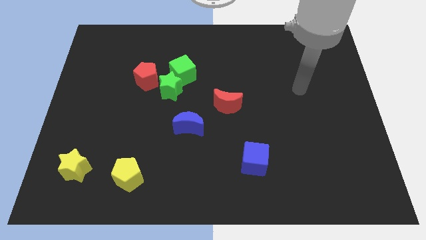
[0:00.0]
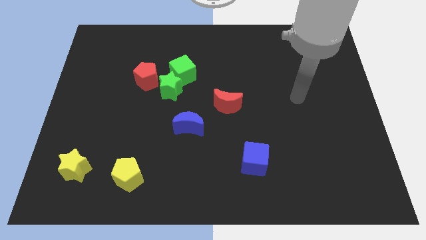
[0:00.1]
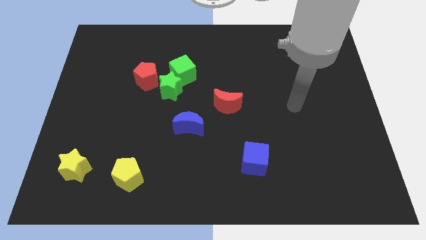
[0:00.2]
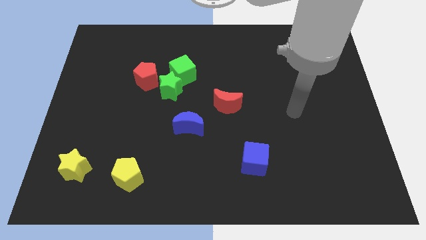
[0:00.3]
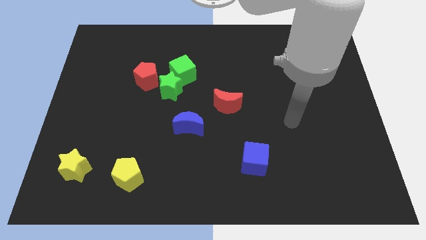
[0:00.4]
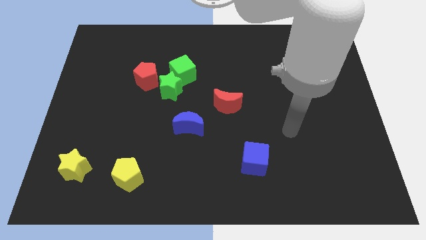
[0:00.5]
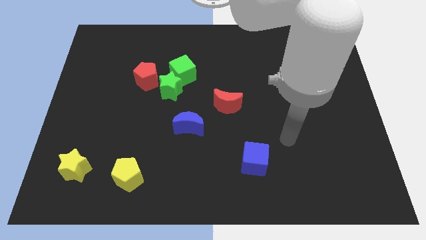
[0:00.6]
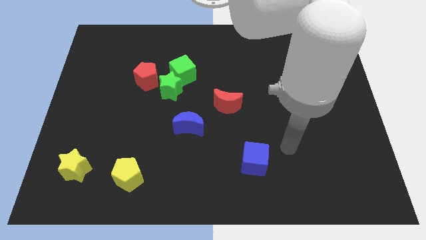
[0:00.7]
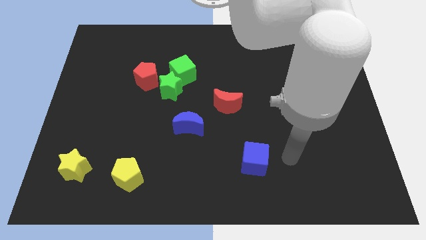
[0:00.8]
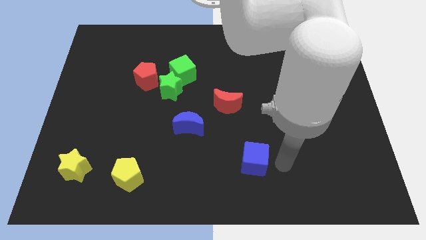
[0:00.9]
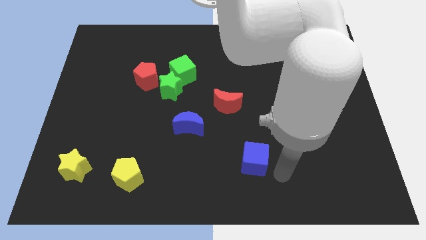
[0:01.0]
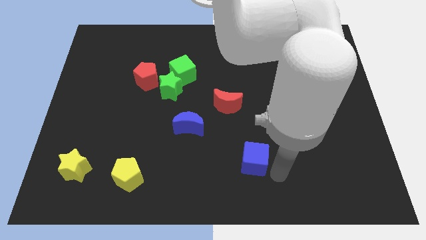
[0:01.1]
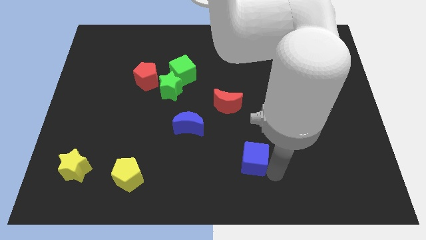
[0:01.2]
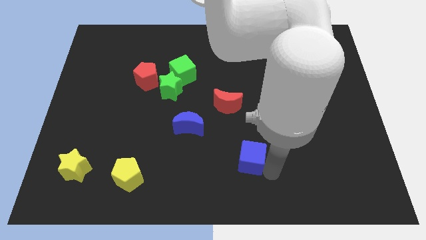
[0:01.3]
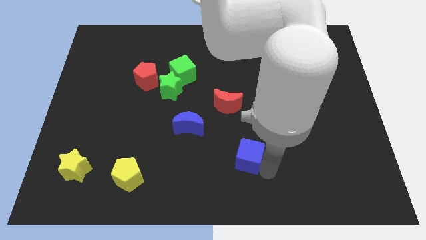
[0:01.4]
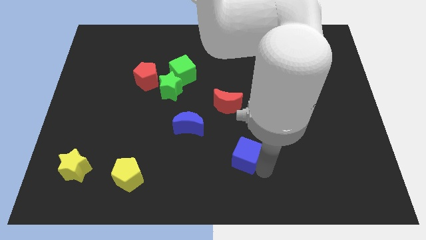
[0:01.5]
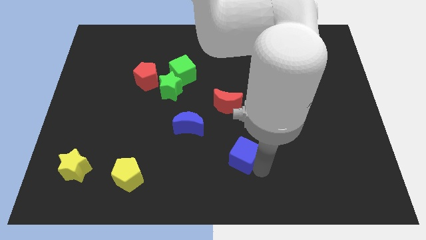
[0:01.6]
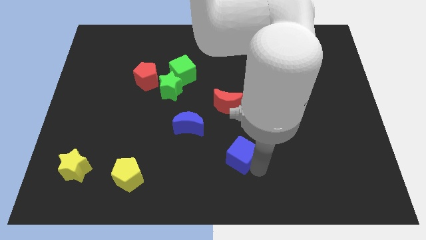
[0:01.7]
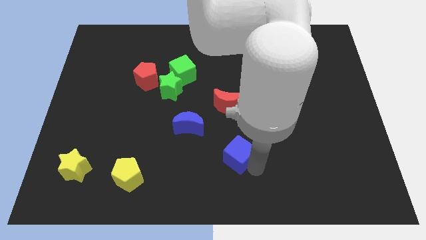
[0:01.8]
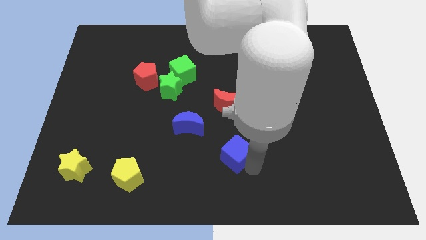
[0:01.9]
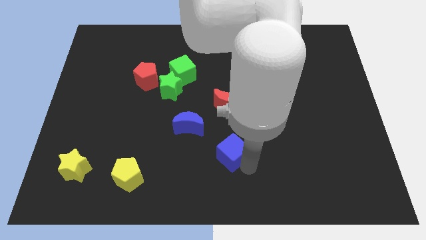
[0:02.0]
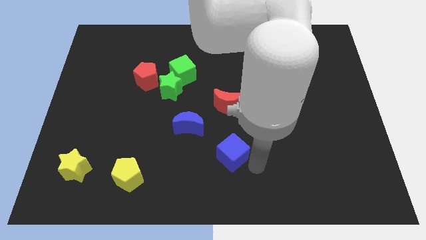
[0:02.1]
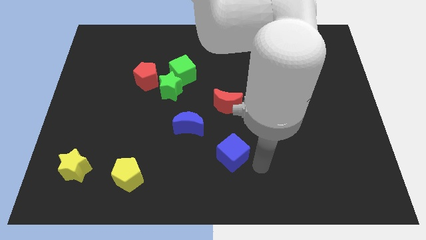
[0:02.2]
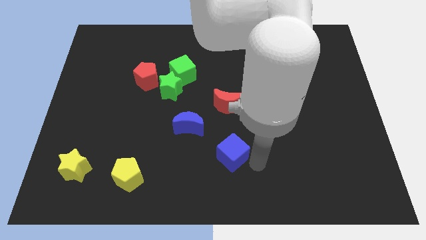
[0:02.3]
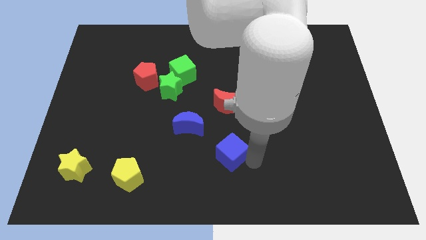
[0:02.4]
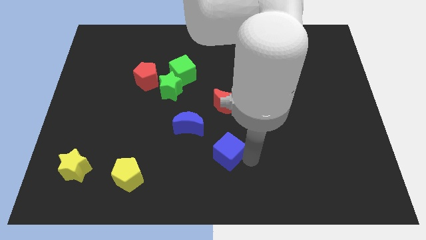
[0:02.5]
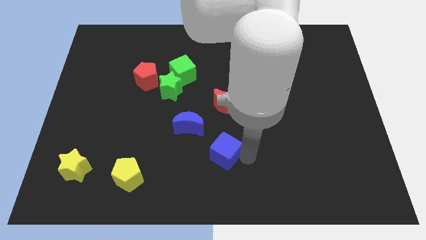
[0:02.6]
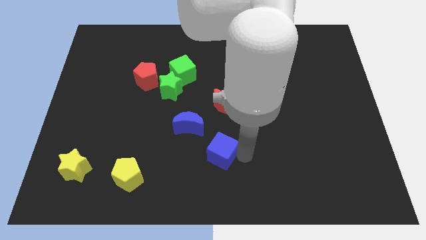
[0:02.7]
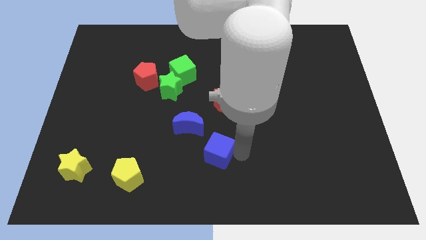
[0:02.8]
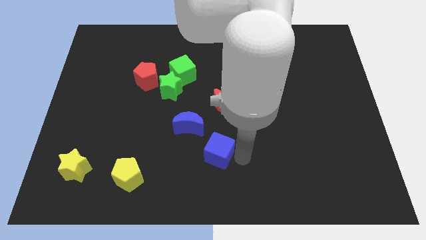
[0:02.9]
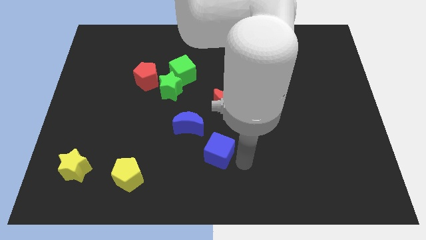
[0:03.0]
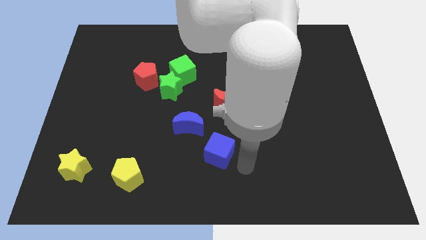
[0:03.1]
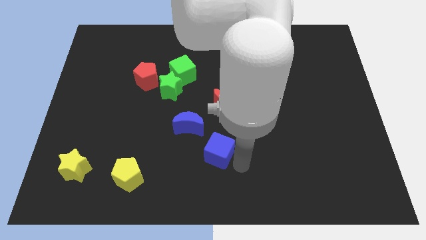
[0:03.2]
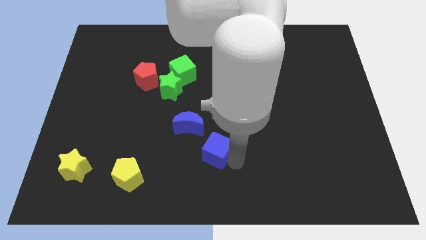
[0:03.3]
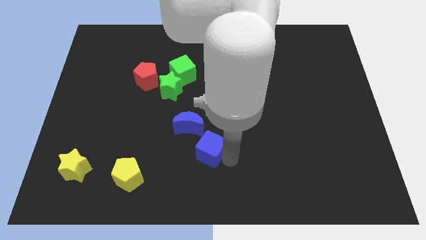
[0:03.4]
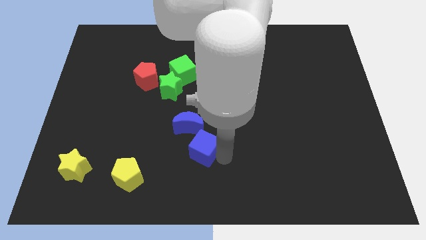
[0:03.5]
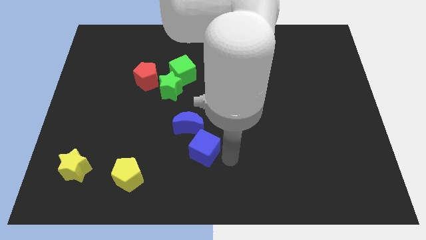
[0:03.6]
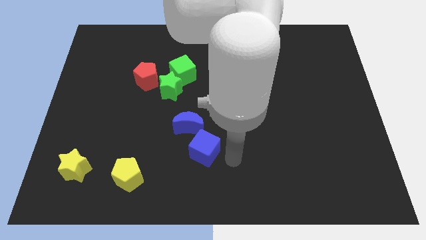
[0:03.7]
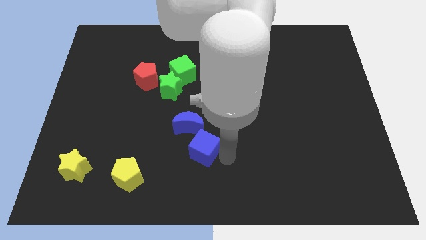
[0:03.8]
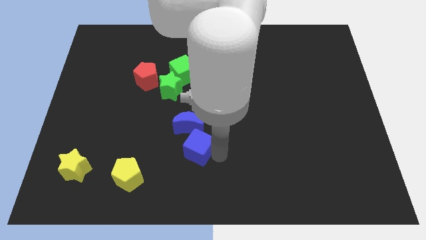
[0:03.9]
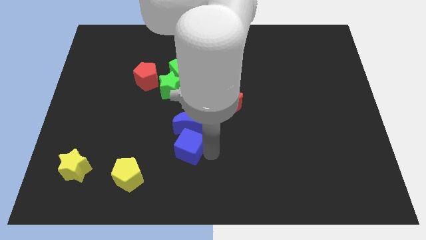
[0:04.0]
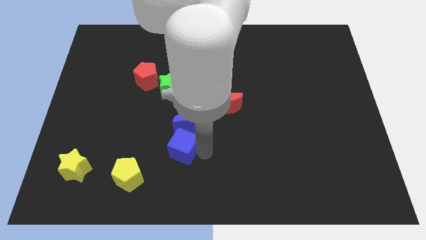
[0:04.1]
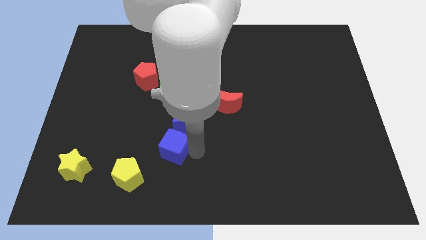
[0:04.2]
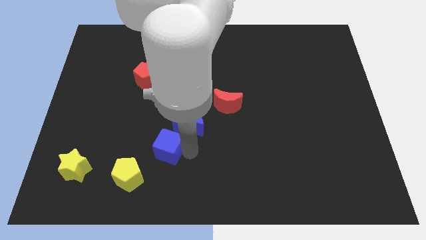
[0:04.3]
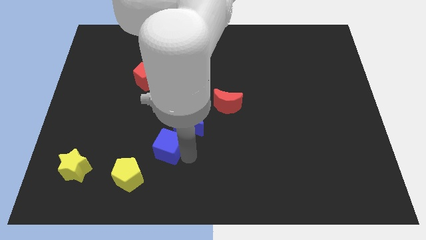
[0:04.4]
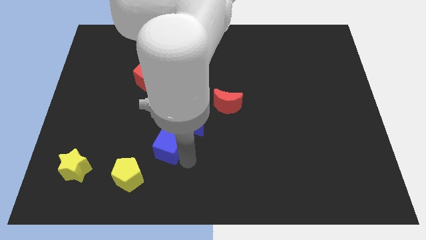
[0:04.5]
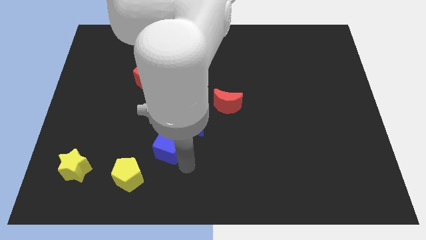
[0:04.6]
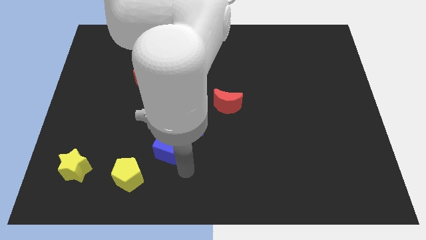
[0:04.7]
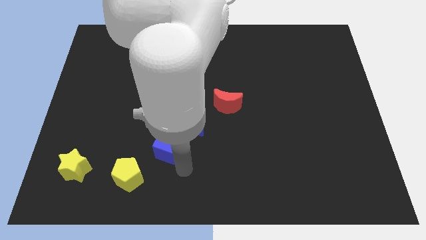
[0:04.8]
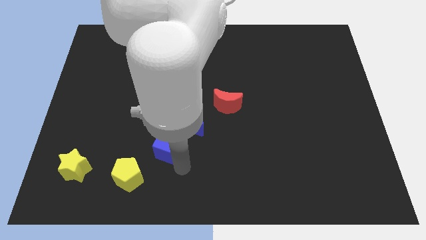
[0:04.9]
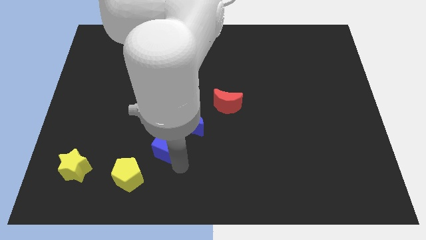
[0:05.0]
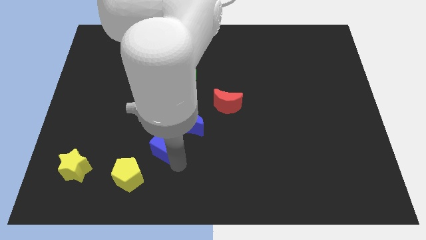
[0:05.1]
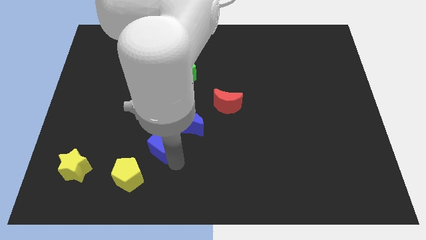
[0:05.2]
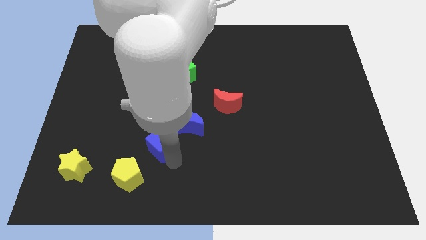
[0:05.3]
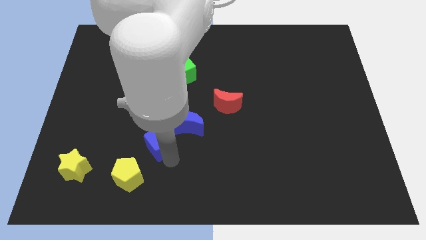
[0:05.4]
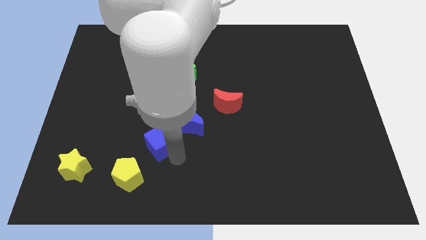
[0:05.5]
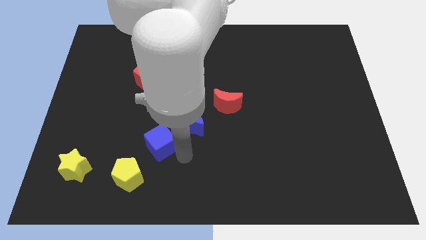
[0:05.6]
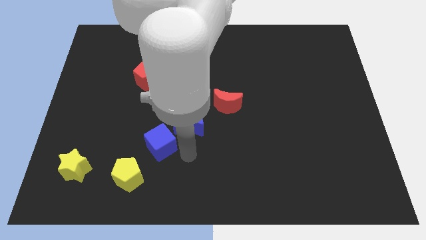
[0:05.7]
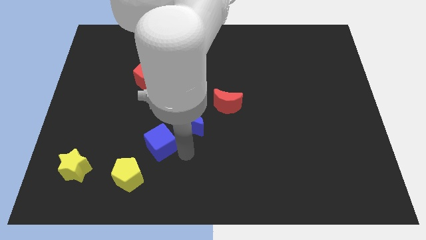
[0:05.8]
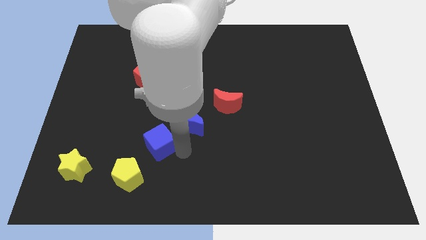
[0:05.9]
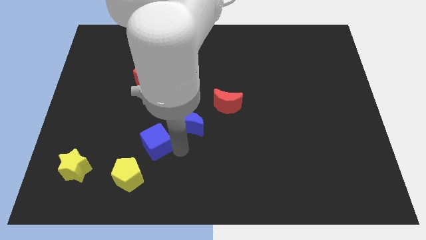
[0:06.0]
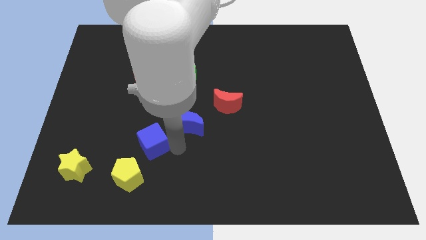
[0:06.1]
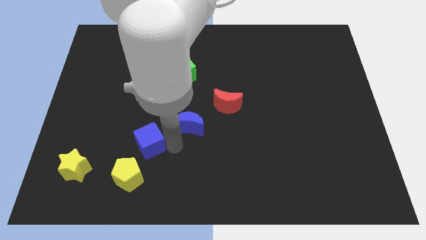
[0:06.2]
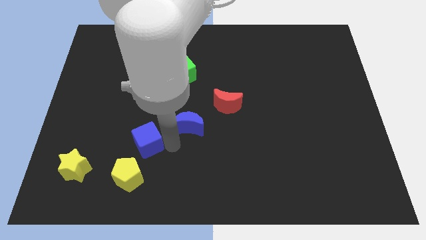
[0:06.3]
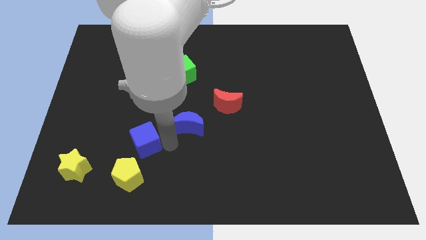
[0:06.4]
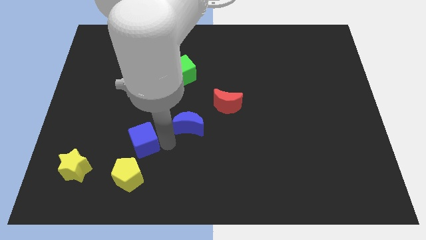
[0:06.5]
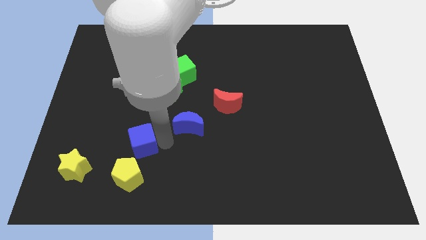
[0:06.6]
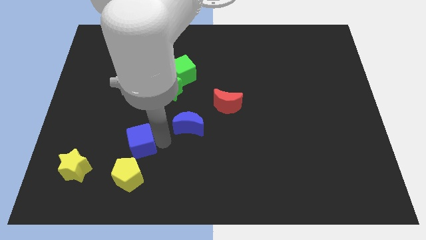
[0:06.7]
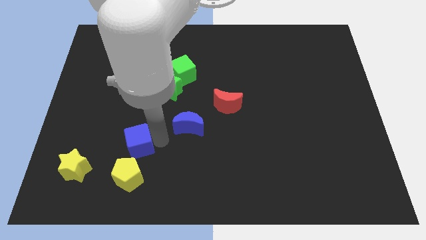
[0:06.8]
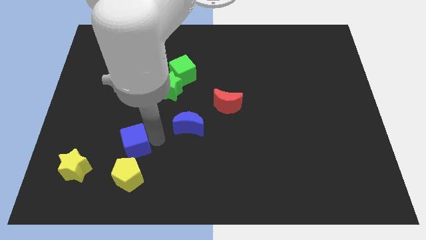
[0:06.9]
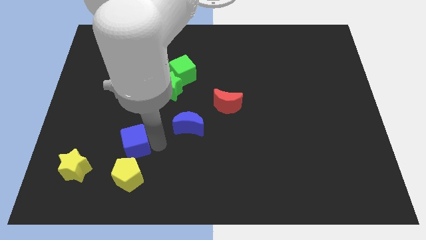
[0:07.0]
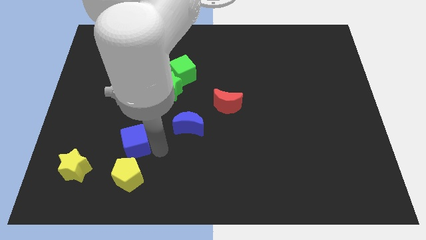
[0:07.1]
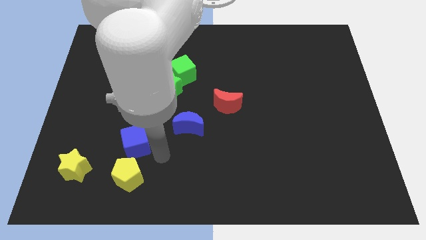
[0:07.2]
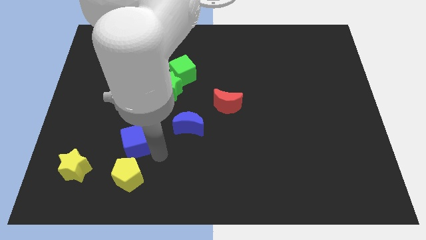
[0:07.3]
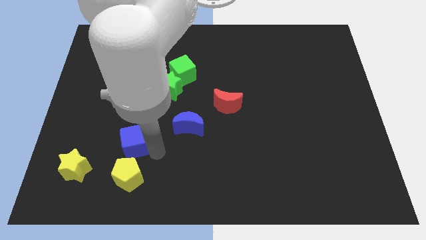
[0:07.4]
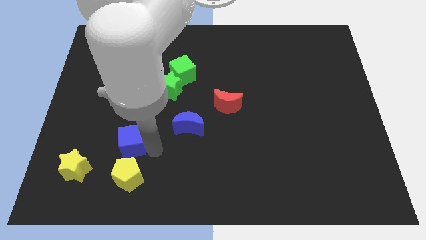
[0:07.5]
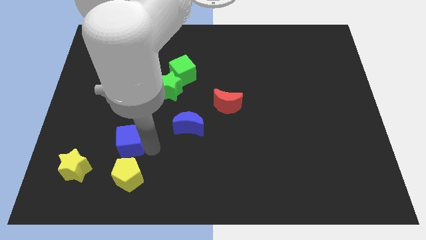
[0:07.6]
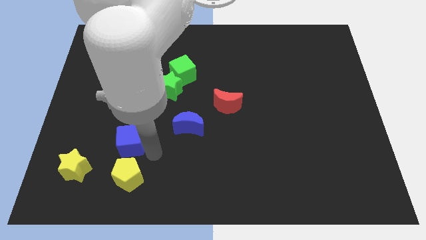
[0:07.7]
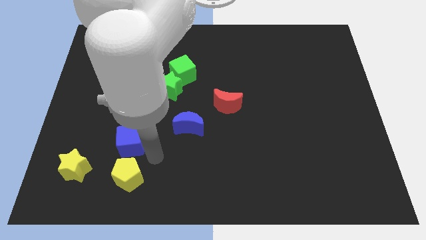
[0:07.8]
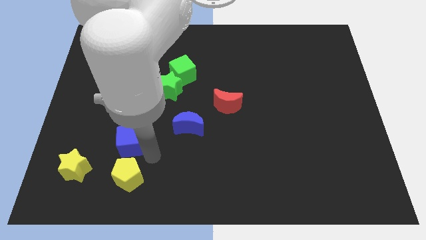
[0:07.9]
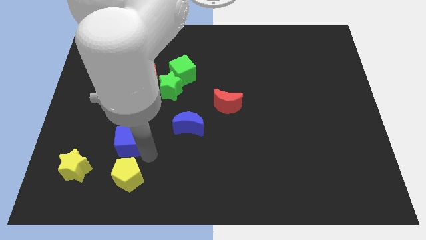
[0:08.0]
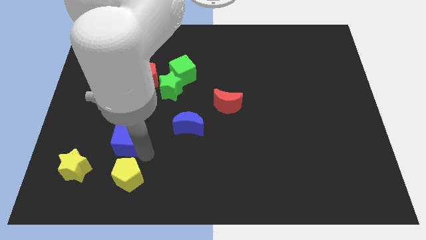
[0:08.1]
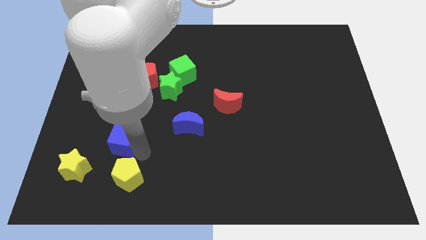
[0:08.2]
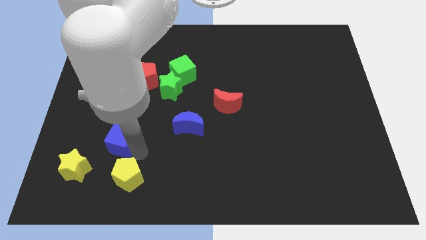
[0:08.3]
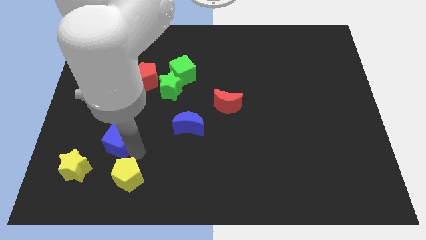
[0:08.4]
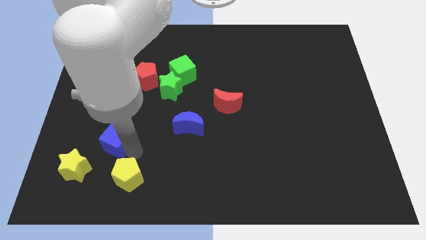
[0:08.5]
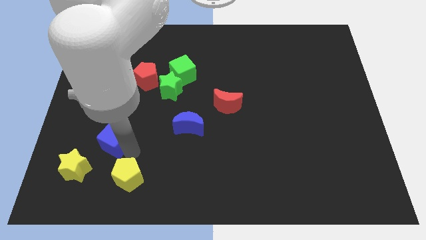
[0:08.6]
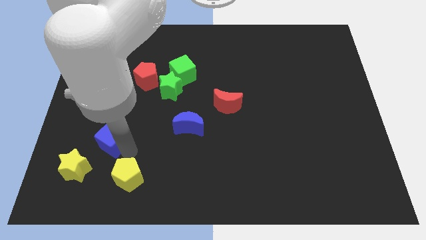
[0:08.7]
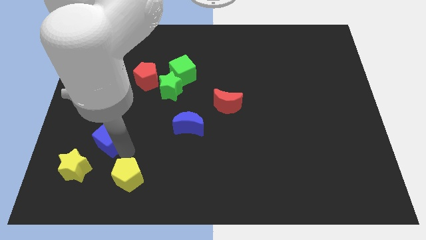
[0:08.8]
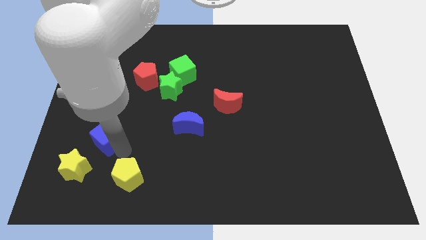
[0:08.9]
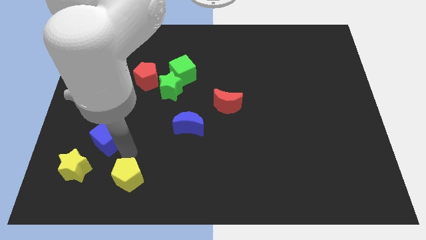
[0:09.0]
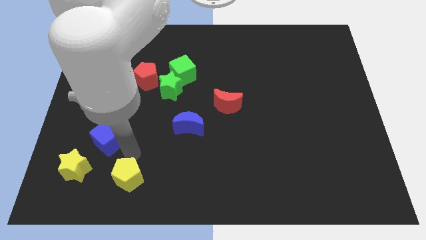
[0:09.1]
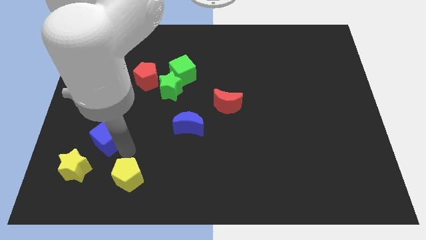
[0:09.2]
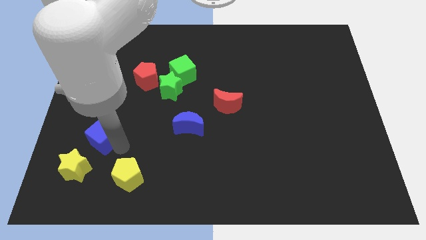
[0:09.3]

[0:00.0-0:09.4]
push the blue cube to the top of the yellow star
